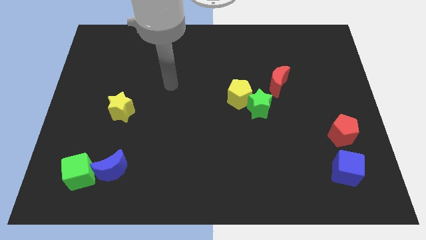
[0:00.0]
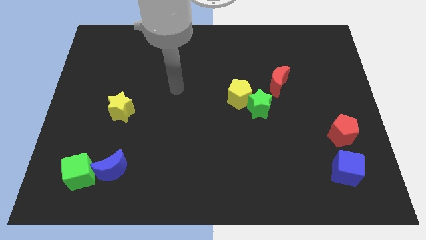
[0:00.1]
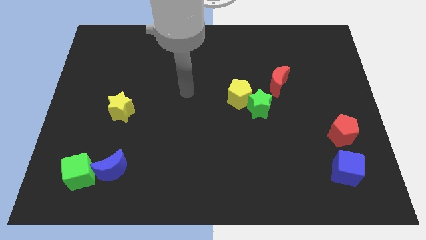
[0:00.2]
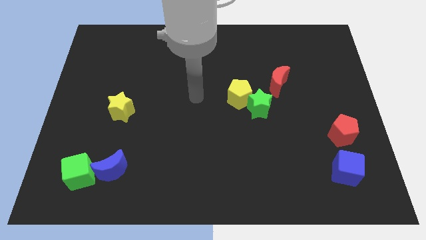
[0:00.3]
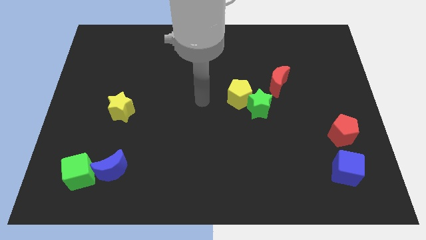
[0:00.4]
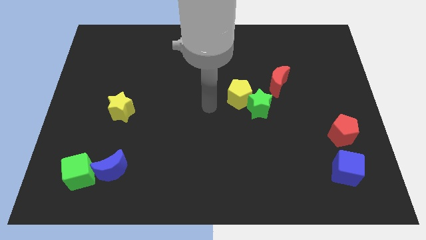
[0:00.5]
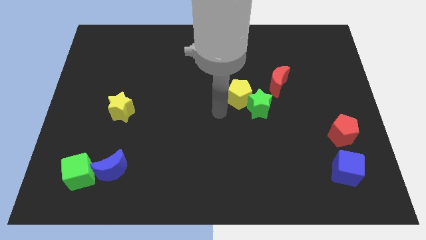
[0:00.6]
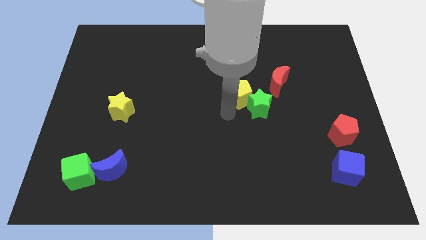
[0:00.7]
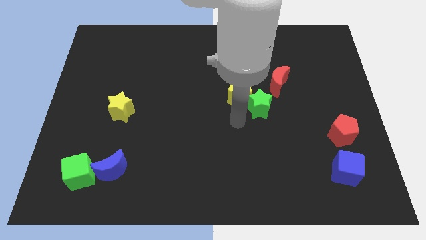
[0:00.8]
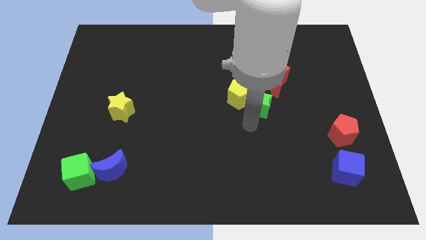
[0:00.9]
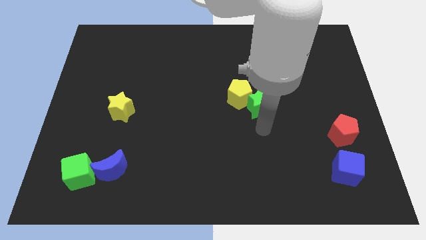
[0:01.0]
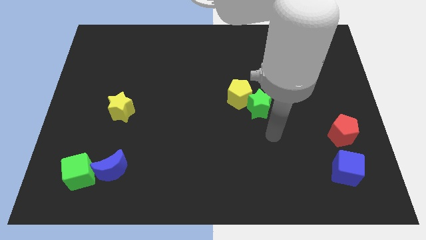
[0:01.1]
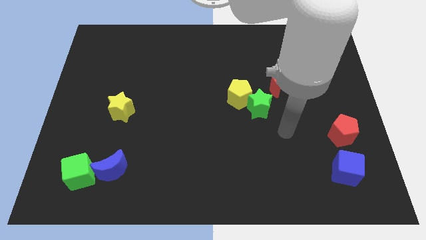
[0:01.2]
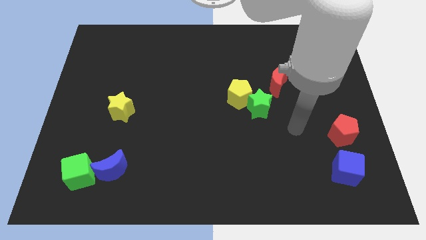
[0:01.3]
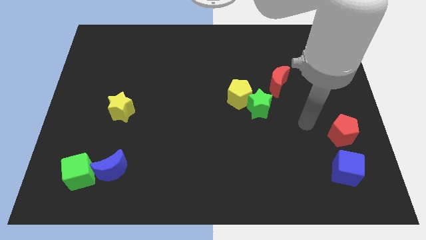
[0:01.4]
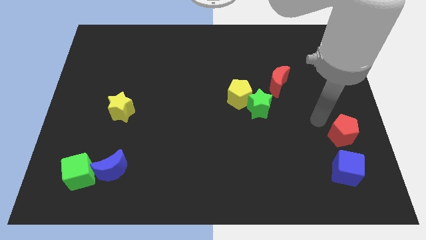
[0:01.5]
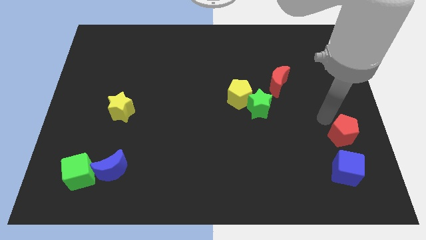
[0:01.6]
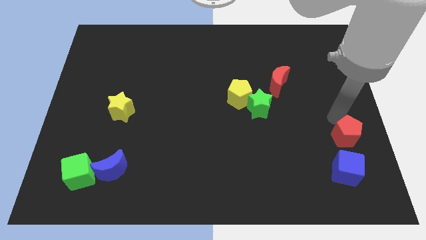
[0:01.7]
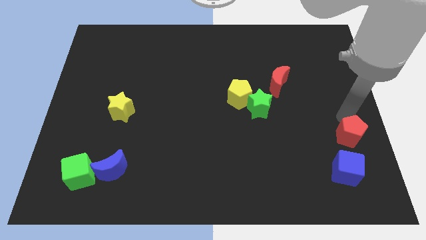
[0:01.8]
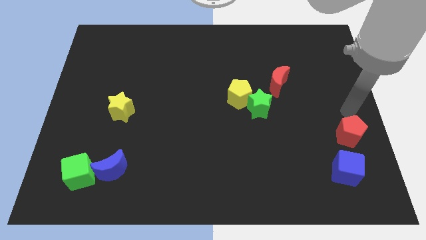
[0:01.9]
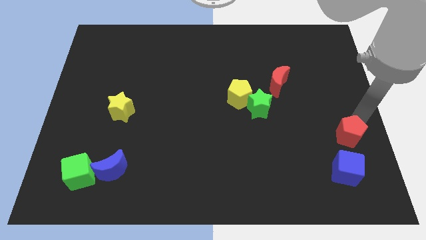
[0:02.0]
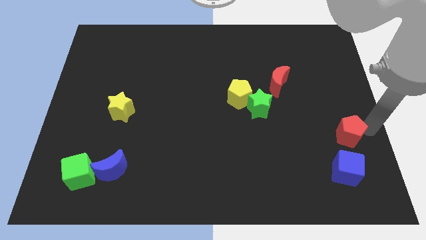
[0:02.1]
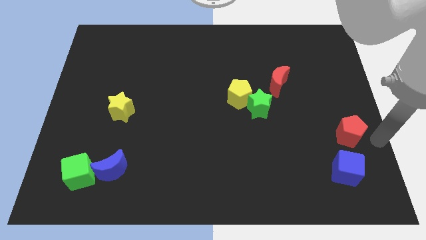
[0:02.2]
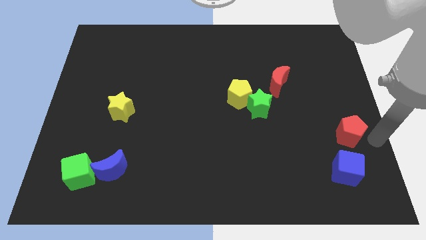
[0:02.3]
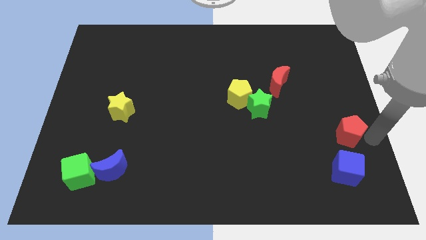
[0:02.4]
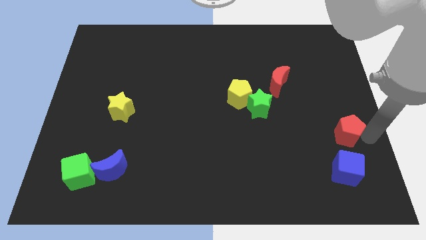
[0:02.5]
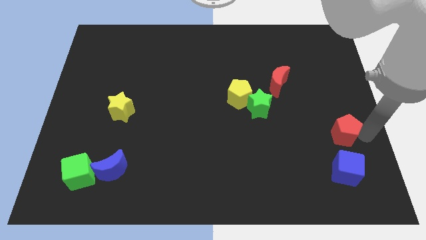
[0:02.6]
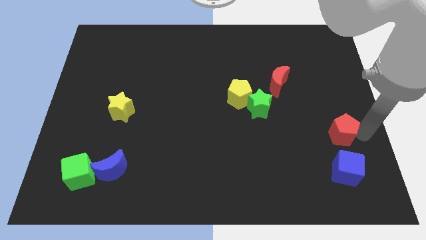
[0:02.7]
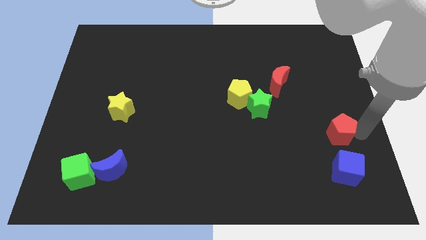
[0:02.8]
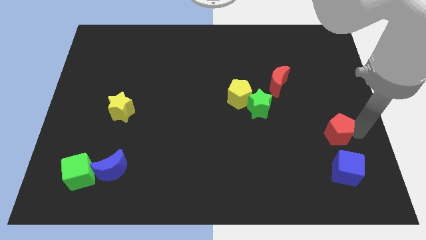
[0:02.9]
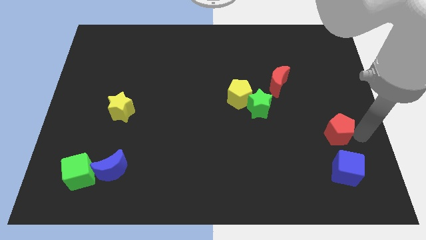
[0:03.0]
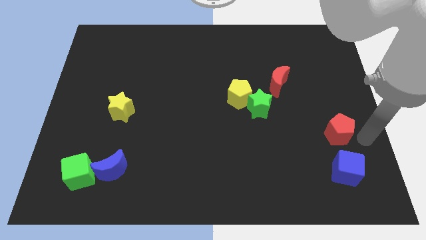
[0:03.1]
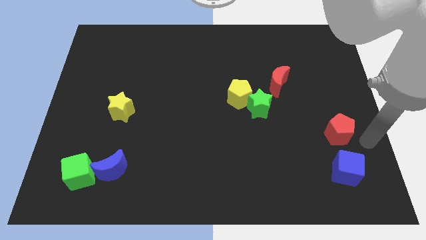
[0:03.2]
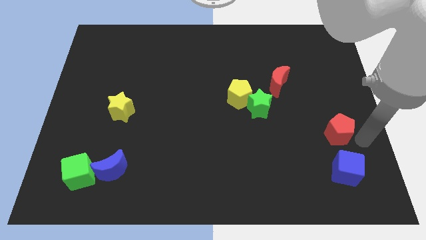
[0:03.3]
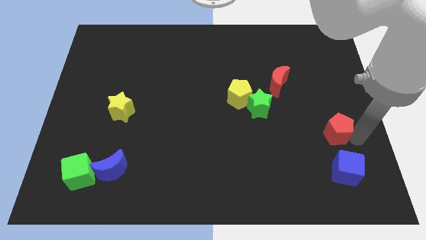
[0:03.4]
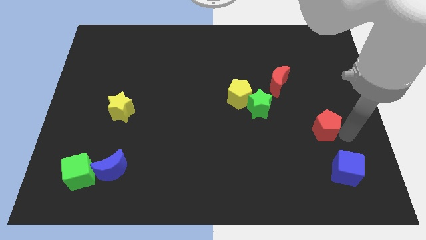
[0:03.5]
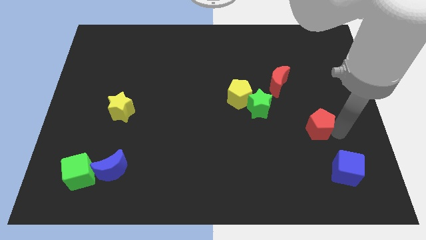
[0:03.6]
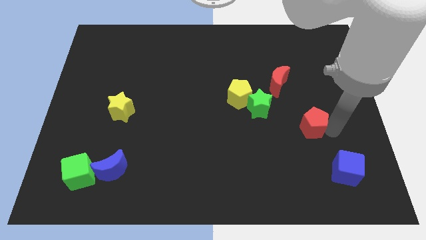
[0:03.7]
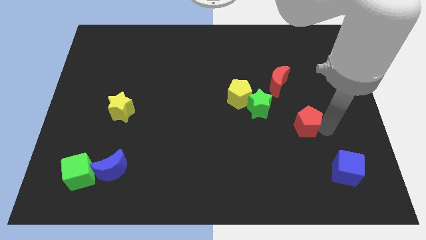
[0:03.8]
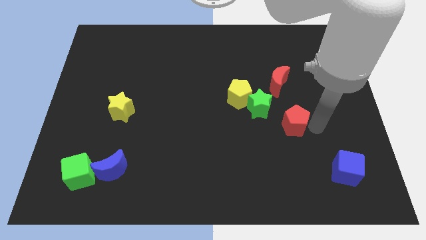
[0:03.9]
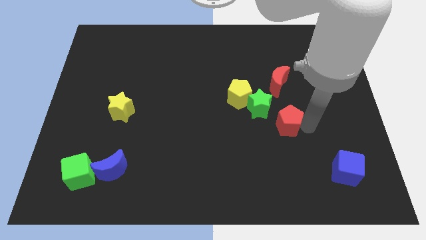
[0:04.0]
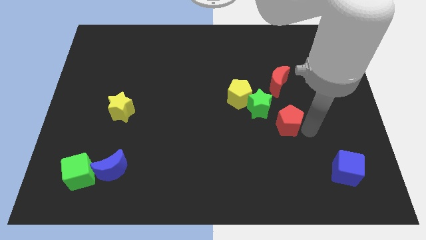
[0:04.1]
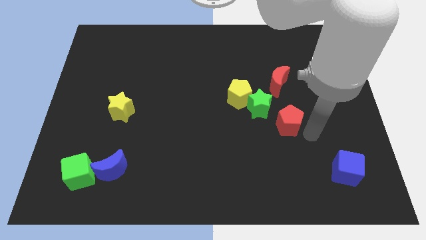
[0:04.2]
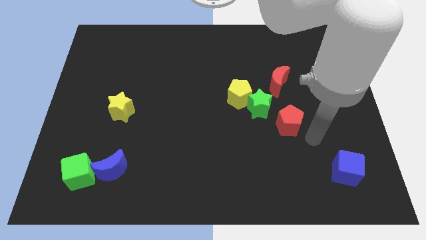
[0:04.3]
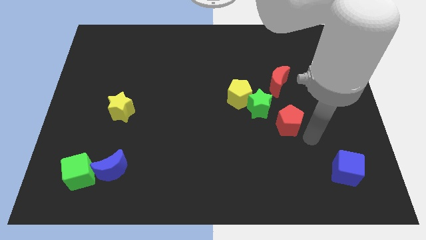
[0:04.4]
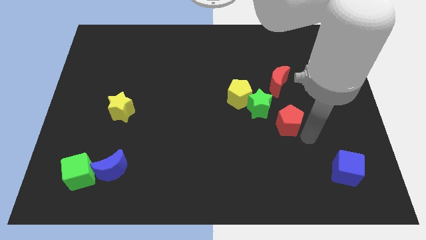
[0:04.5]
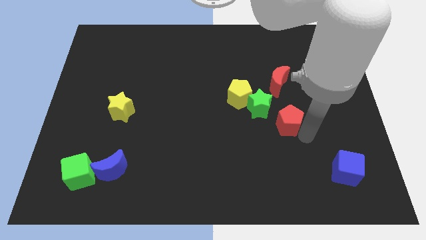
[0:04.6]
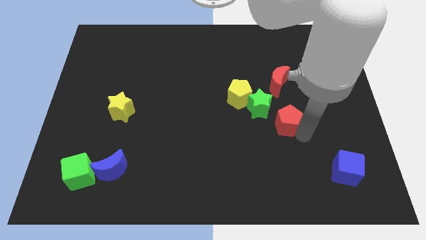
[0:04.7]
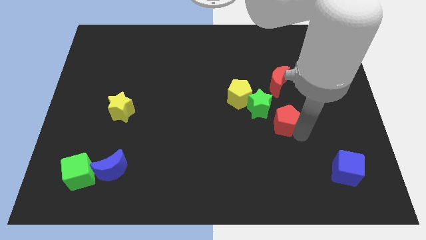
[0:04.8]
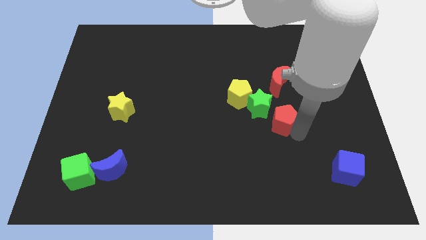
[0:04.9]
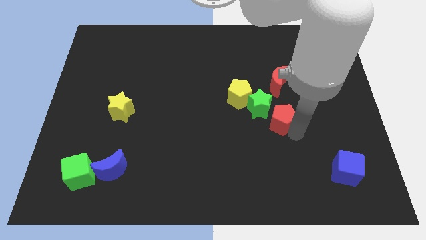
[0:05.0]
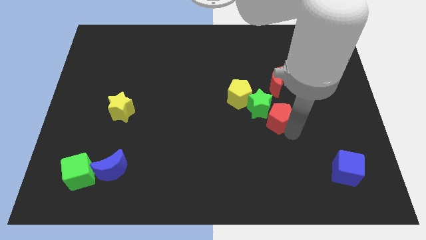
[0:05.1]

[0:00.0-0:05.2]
slide the red pentagon next to the green star

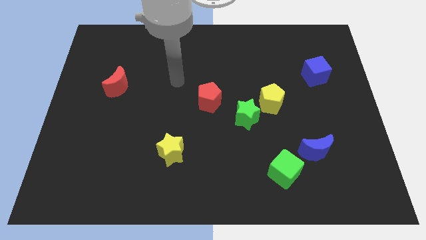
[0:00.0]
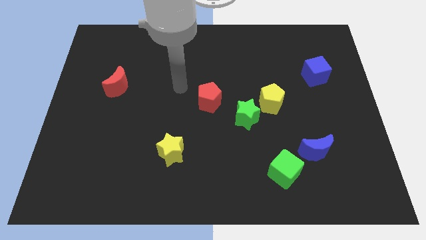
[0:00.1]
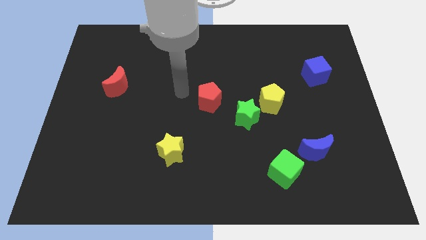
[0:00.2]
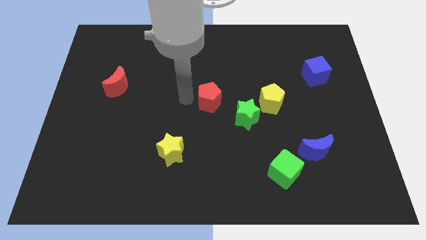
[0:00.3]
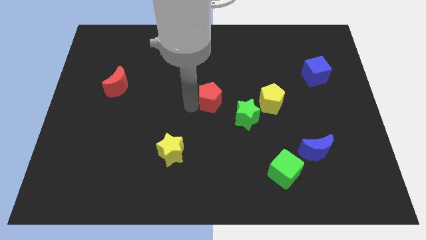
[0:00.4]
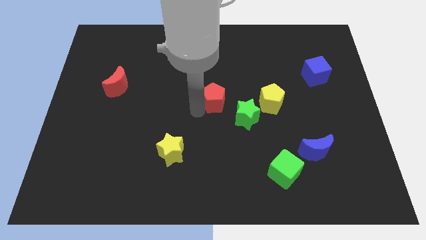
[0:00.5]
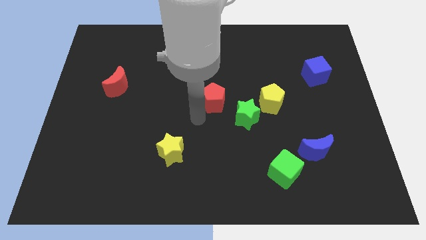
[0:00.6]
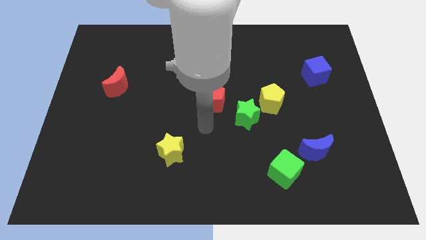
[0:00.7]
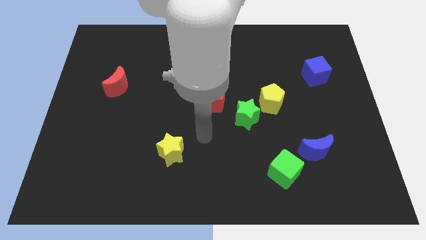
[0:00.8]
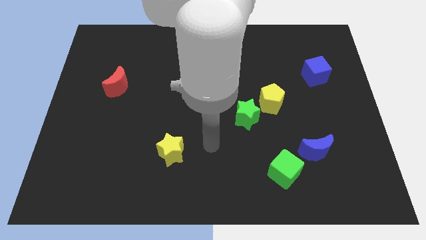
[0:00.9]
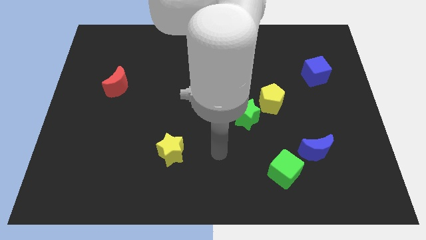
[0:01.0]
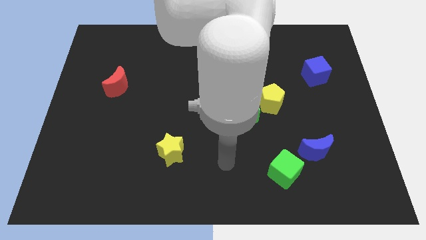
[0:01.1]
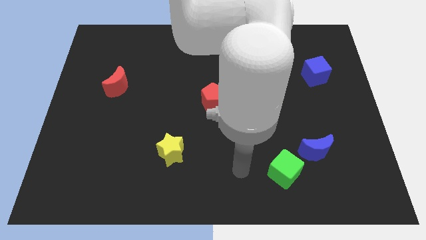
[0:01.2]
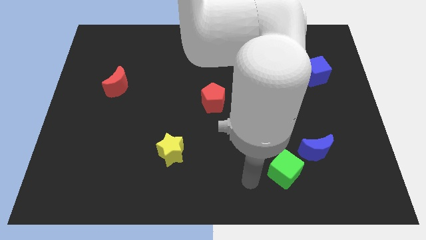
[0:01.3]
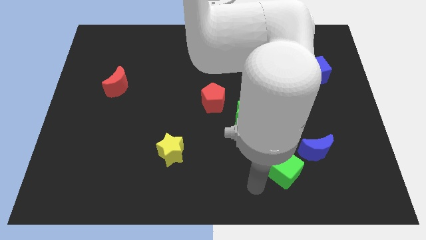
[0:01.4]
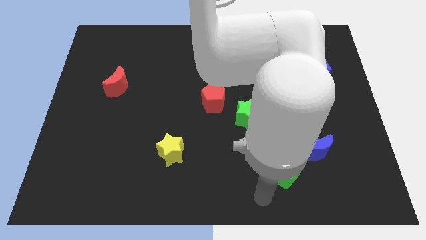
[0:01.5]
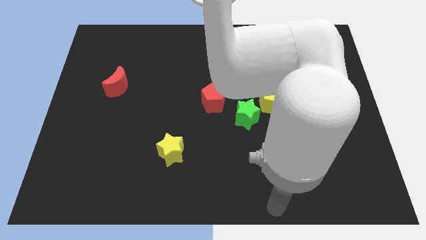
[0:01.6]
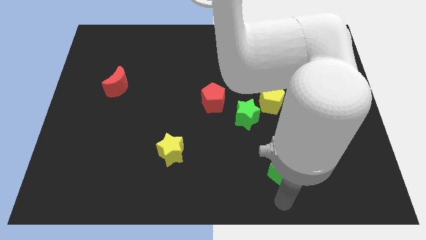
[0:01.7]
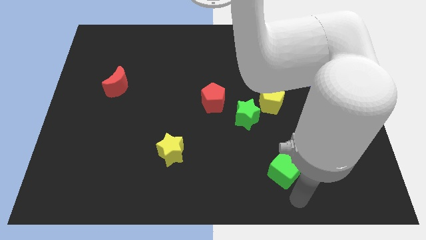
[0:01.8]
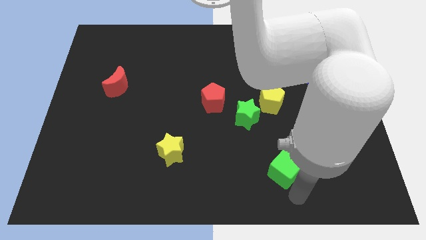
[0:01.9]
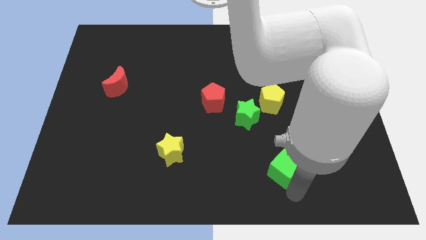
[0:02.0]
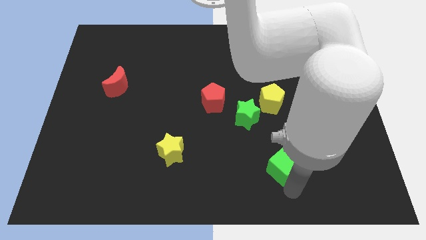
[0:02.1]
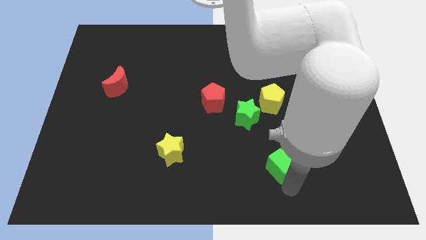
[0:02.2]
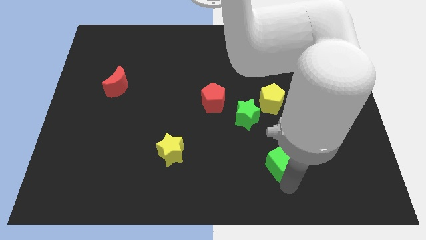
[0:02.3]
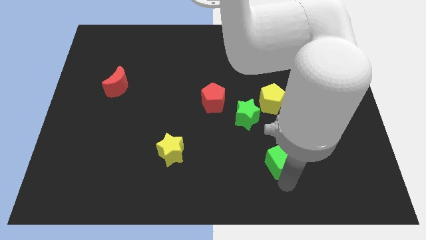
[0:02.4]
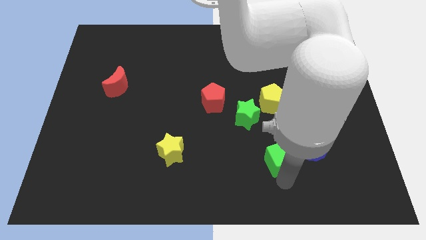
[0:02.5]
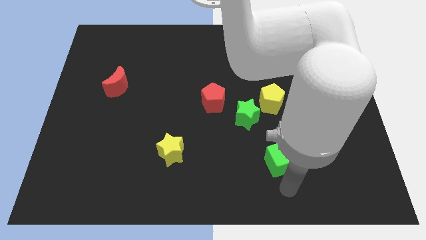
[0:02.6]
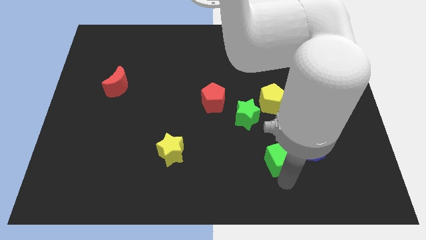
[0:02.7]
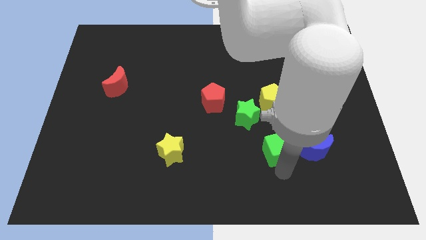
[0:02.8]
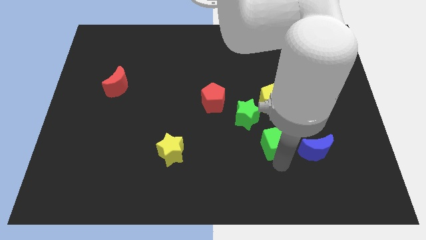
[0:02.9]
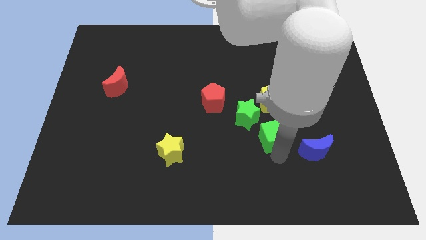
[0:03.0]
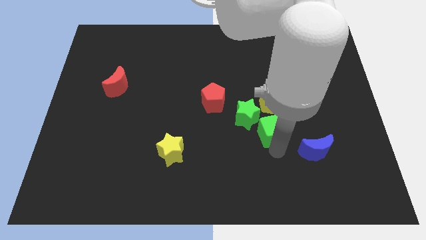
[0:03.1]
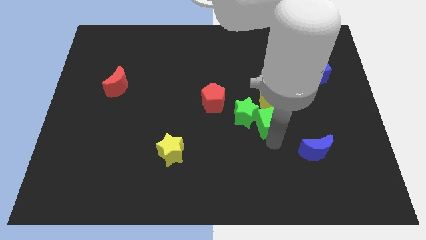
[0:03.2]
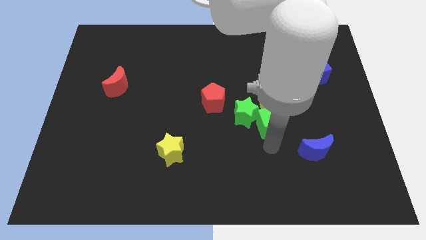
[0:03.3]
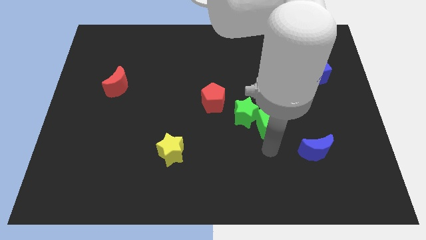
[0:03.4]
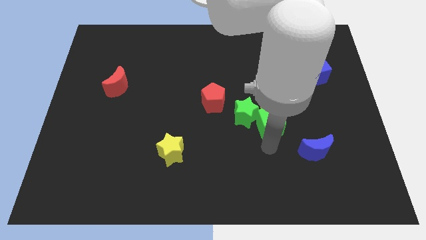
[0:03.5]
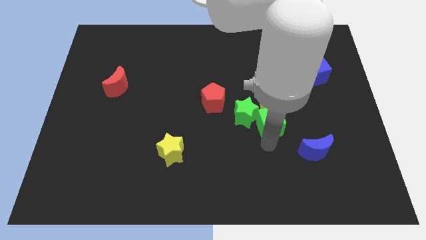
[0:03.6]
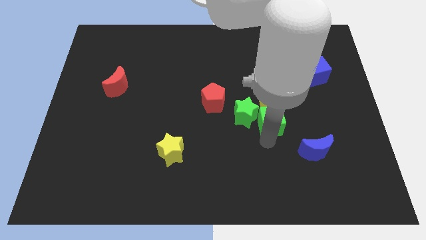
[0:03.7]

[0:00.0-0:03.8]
move the green cube towards the yellow pentagon
